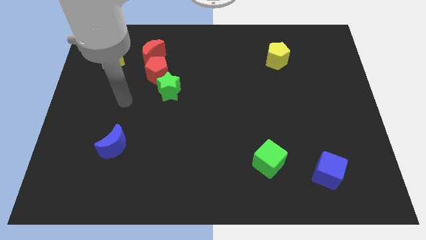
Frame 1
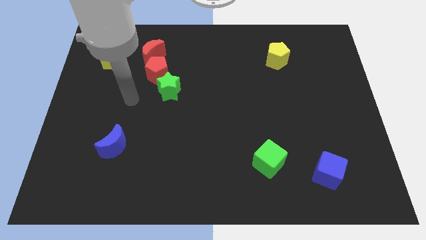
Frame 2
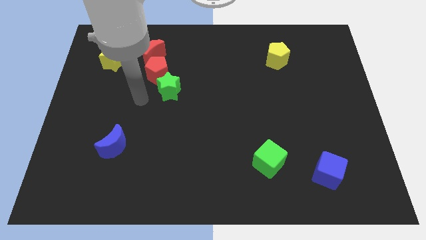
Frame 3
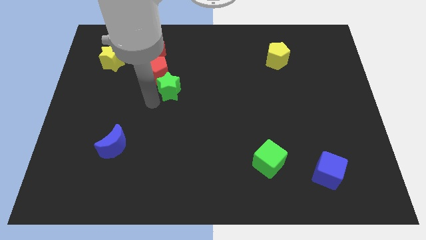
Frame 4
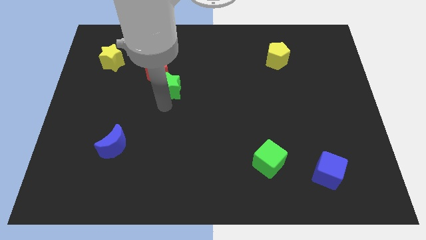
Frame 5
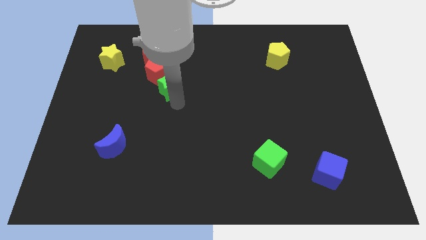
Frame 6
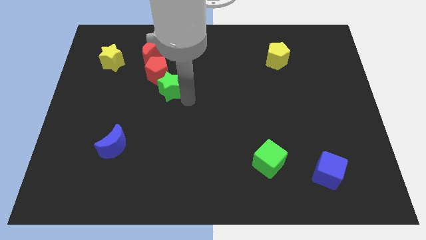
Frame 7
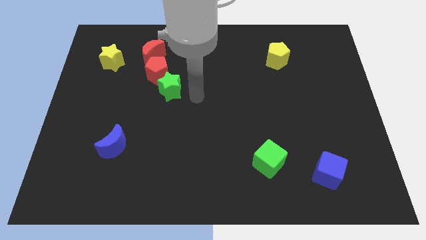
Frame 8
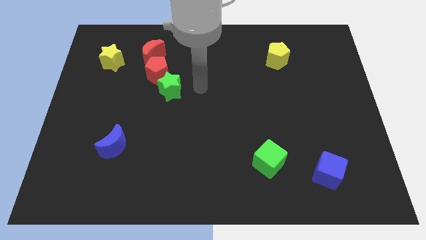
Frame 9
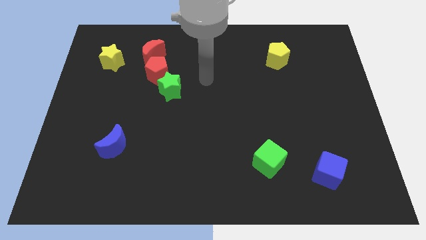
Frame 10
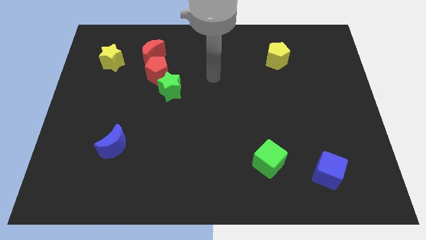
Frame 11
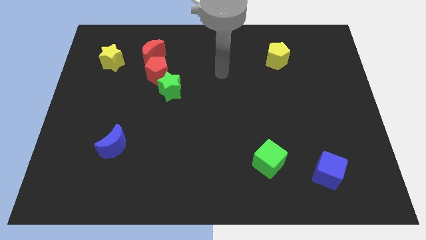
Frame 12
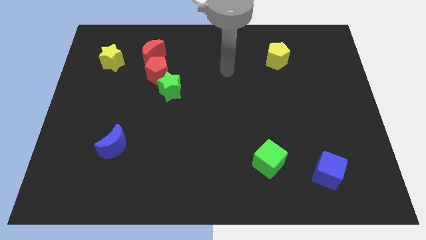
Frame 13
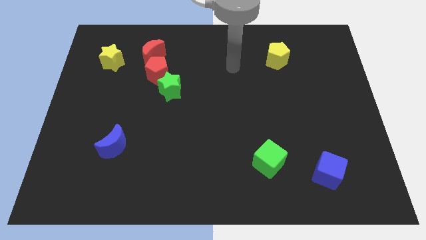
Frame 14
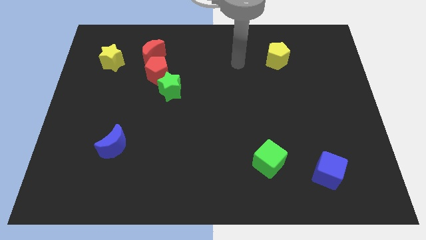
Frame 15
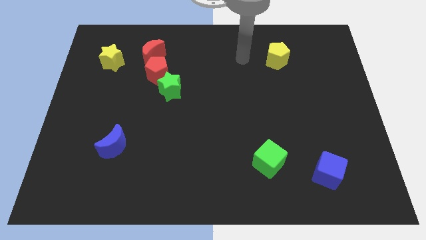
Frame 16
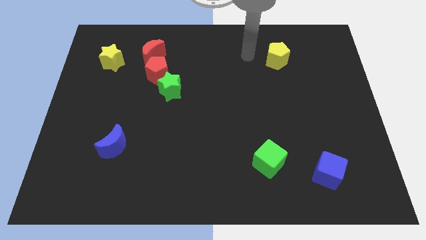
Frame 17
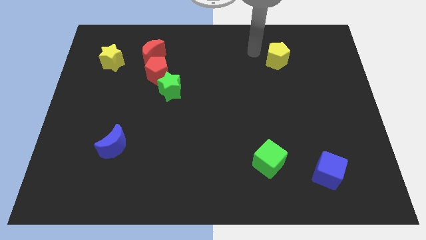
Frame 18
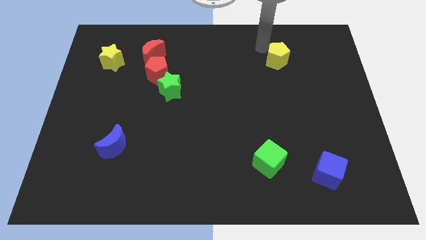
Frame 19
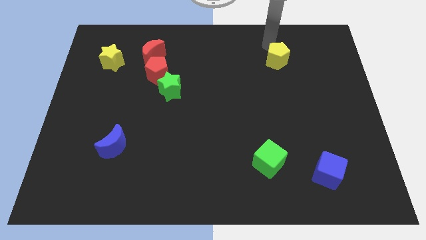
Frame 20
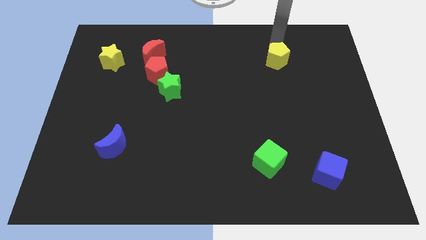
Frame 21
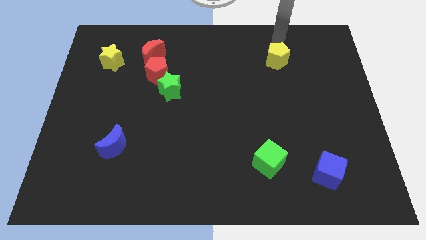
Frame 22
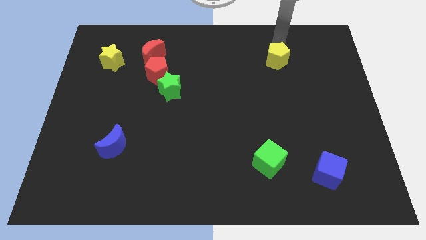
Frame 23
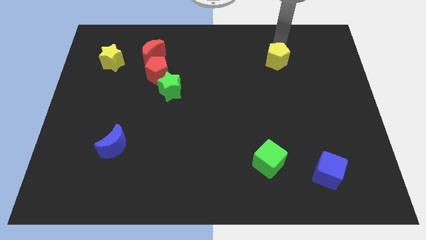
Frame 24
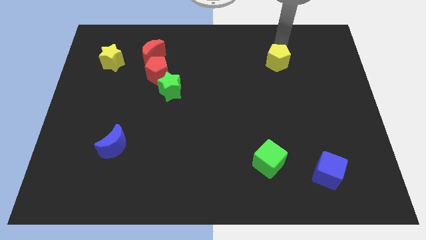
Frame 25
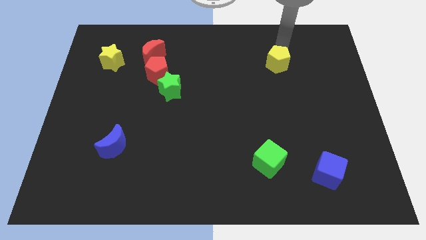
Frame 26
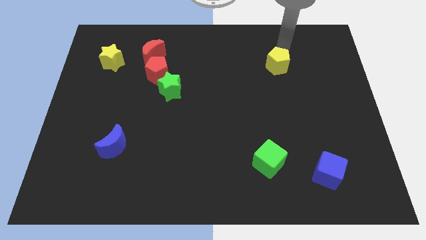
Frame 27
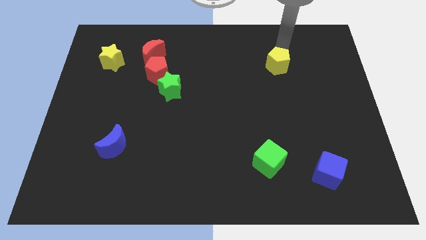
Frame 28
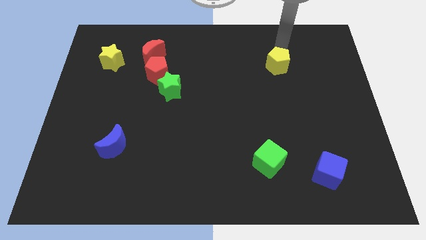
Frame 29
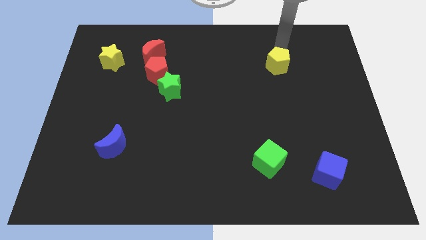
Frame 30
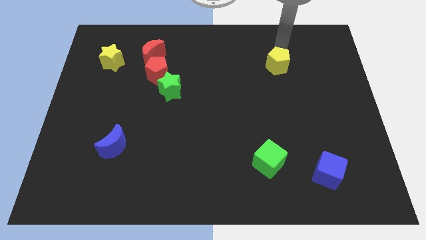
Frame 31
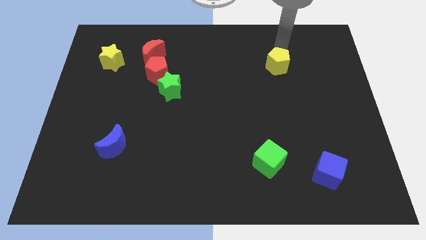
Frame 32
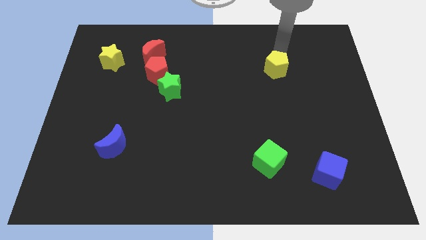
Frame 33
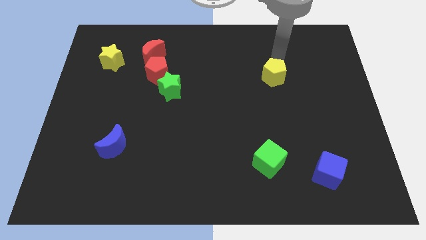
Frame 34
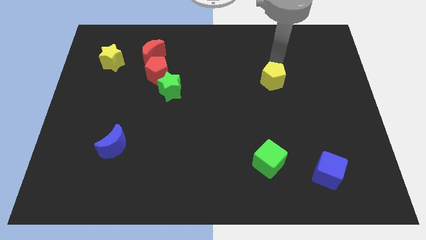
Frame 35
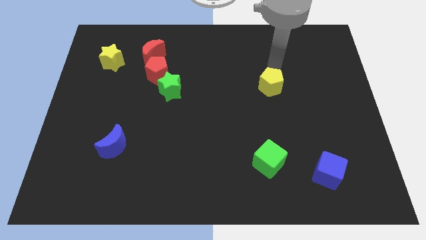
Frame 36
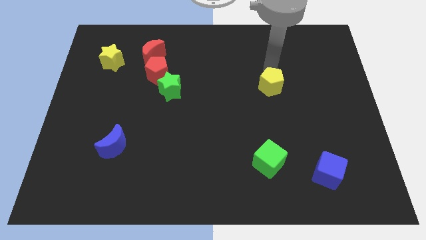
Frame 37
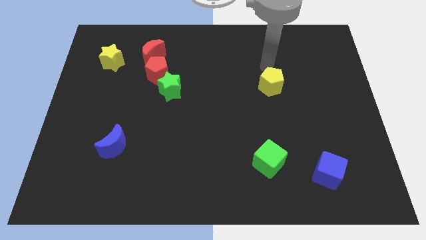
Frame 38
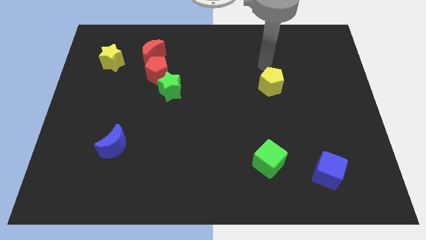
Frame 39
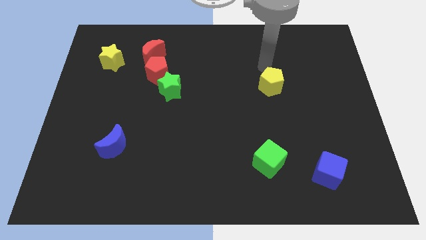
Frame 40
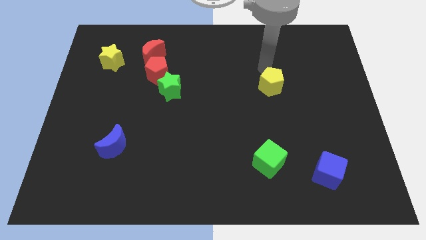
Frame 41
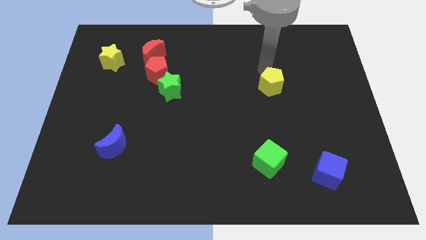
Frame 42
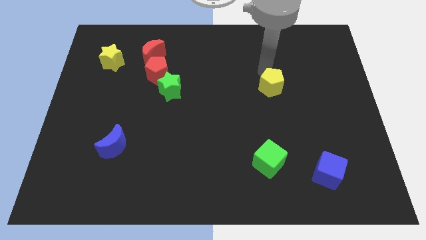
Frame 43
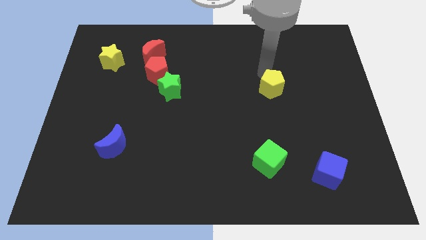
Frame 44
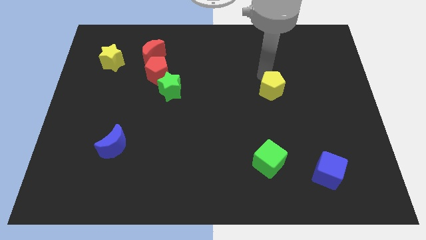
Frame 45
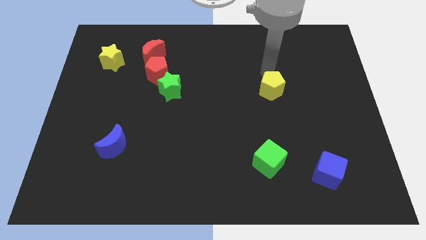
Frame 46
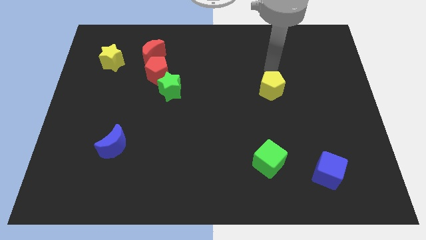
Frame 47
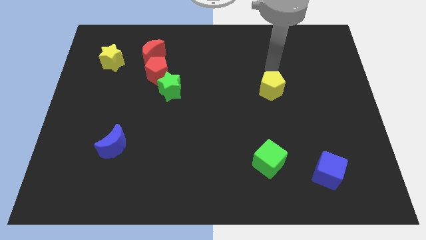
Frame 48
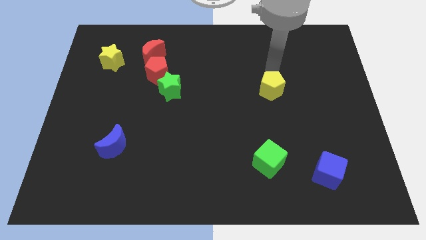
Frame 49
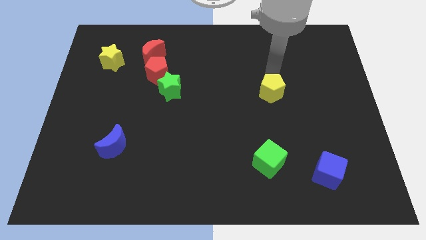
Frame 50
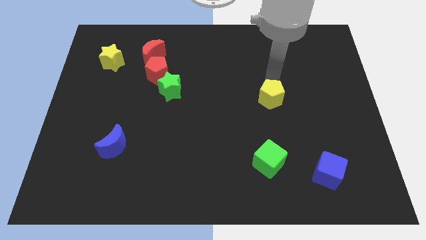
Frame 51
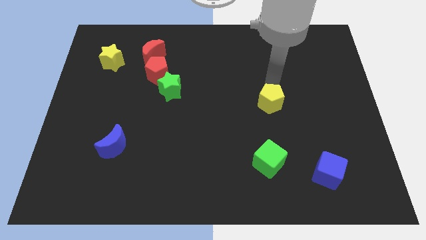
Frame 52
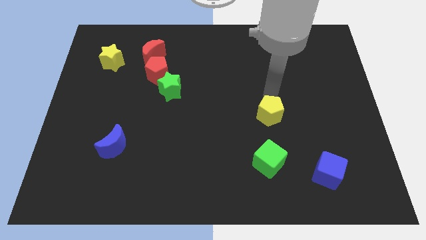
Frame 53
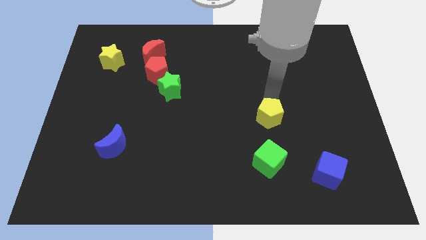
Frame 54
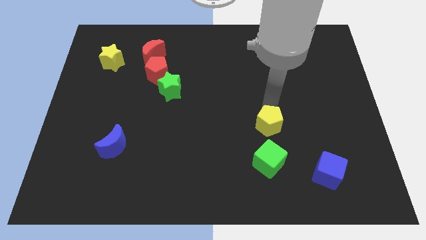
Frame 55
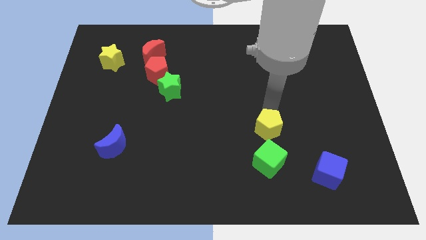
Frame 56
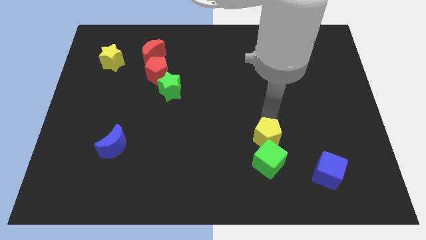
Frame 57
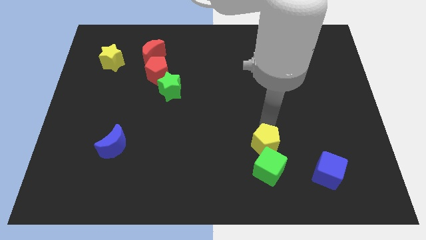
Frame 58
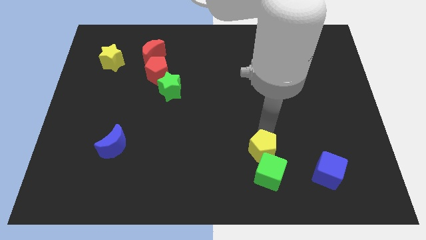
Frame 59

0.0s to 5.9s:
slide the yellow pentagon close to the green cube
